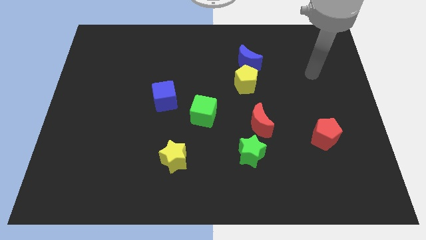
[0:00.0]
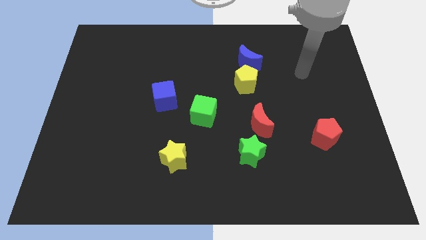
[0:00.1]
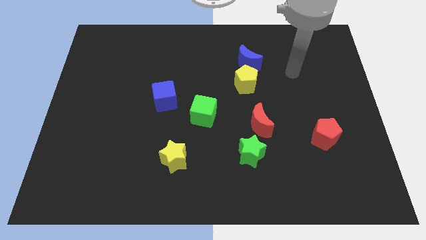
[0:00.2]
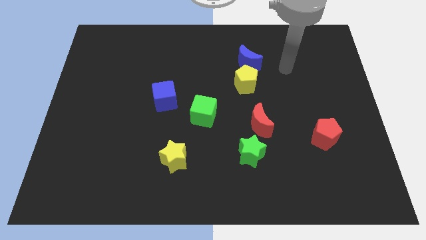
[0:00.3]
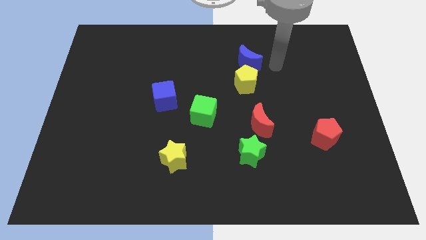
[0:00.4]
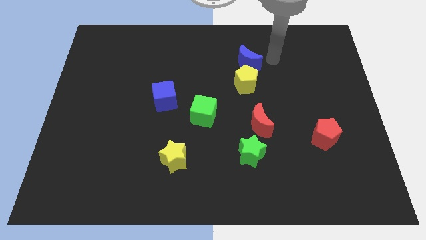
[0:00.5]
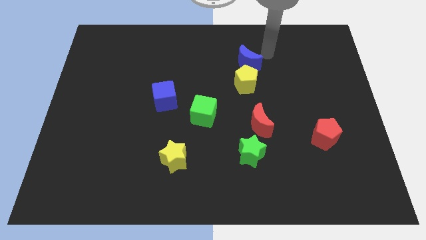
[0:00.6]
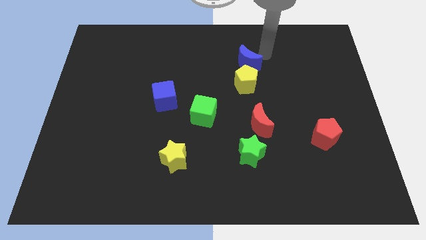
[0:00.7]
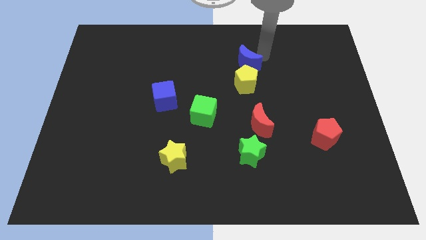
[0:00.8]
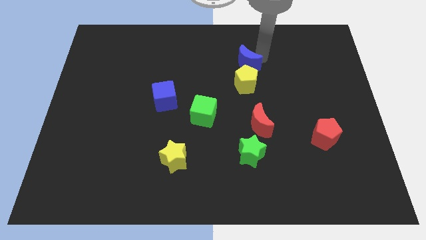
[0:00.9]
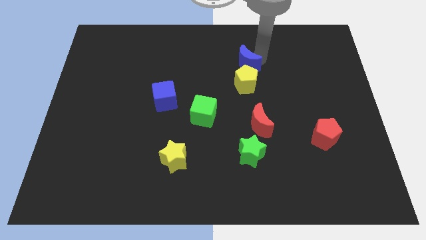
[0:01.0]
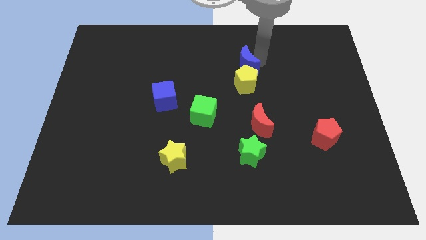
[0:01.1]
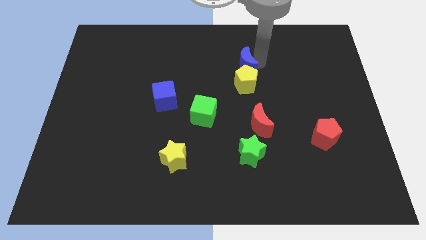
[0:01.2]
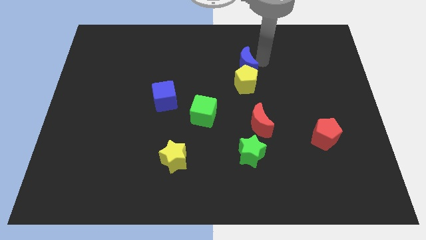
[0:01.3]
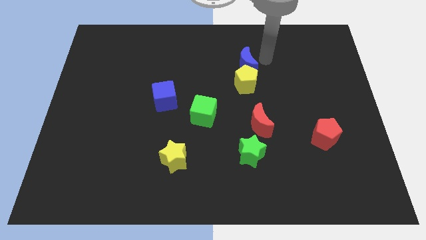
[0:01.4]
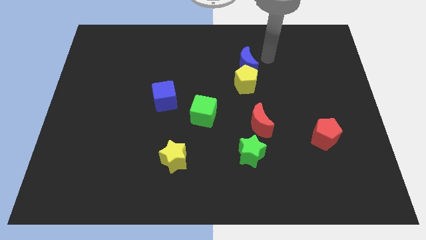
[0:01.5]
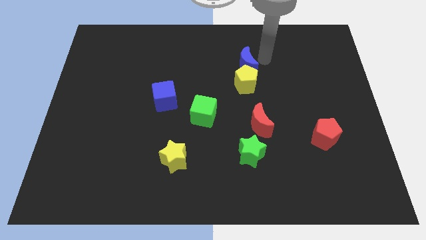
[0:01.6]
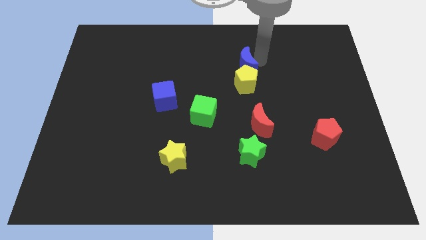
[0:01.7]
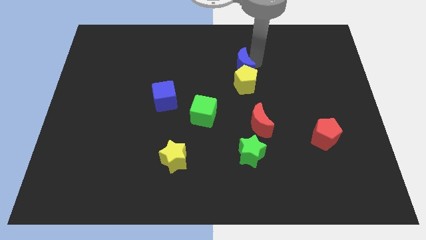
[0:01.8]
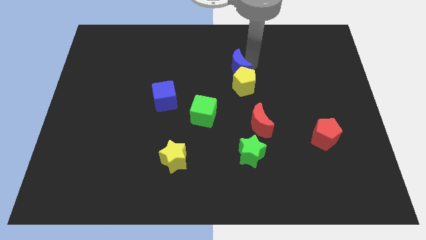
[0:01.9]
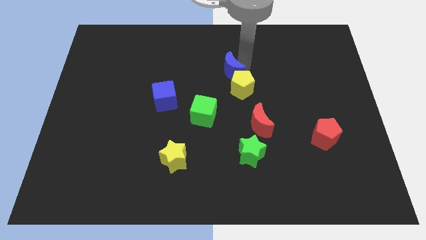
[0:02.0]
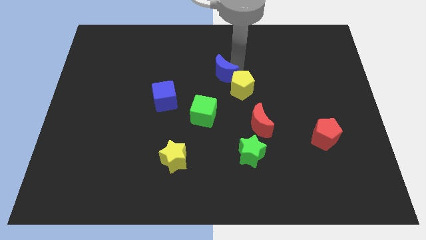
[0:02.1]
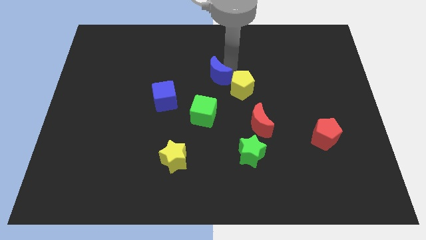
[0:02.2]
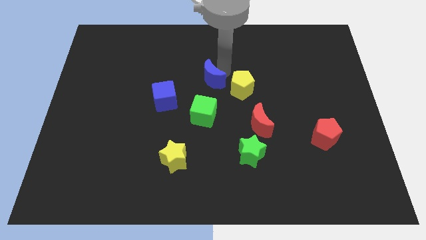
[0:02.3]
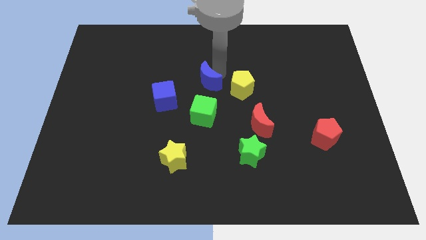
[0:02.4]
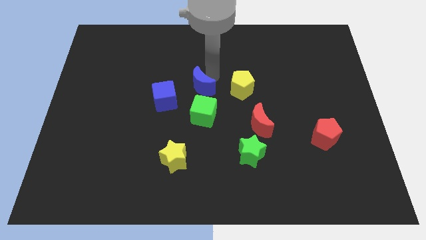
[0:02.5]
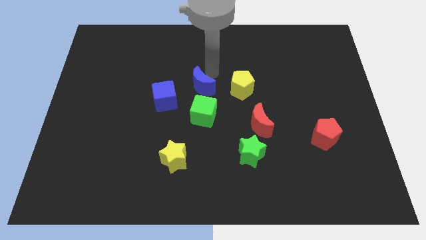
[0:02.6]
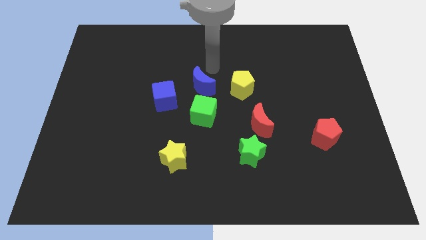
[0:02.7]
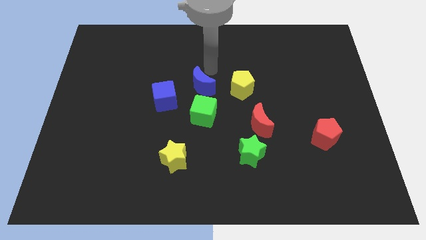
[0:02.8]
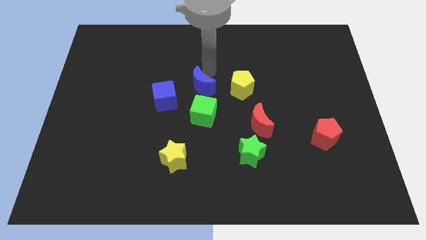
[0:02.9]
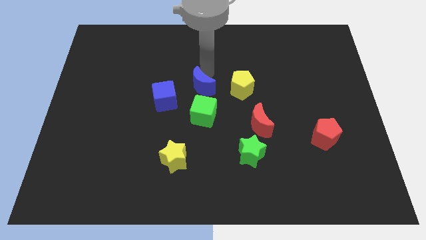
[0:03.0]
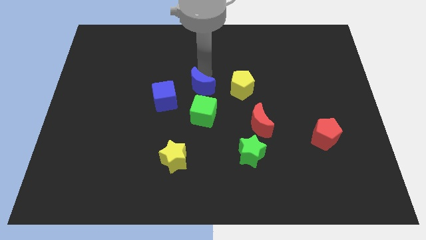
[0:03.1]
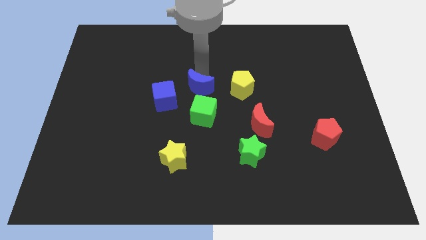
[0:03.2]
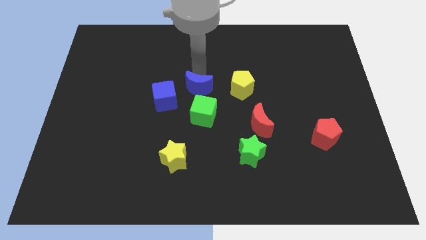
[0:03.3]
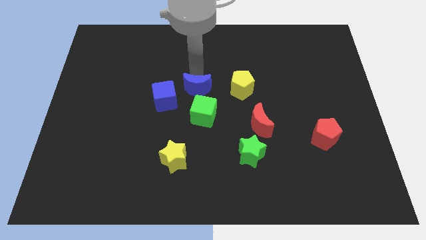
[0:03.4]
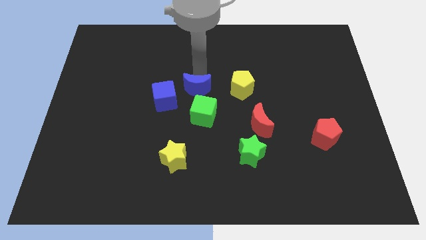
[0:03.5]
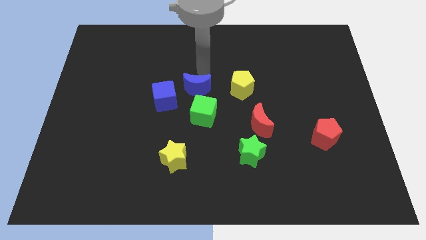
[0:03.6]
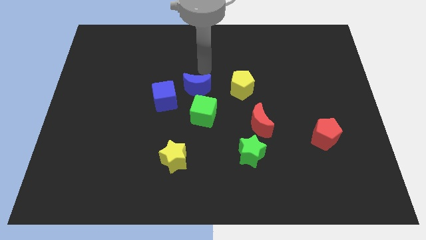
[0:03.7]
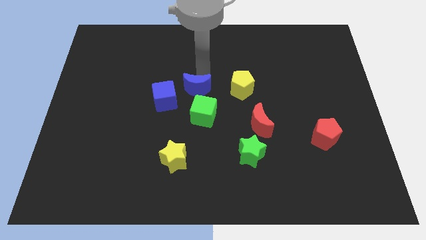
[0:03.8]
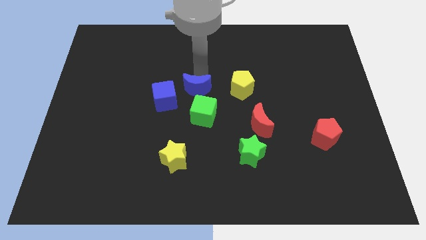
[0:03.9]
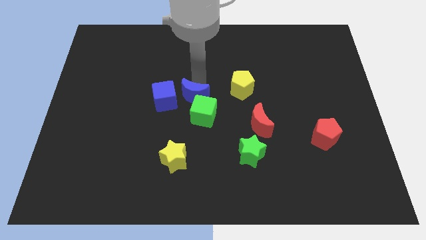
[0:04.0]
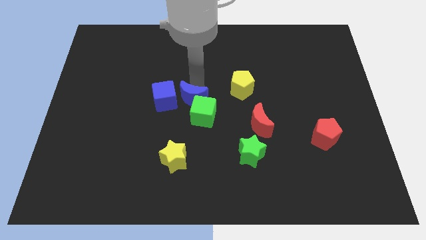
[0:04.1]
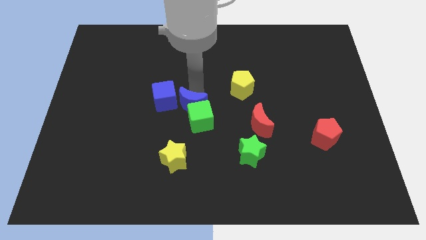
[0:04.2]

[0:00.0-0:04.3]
push the blue moon diagonally down and left

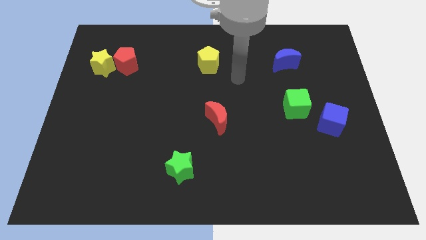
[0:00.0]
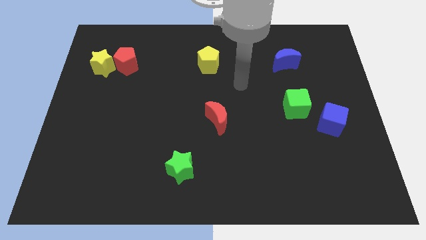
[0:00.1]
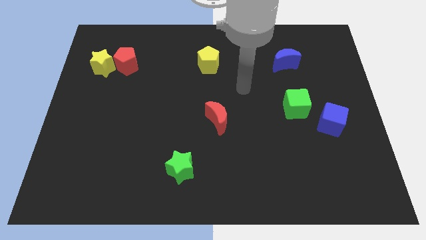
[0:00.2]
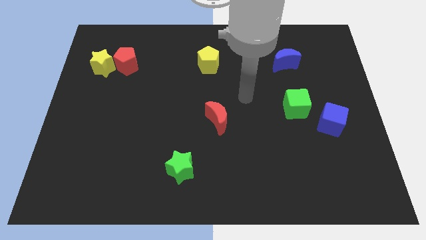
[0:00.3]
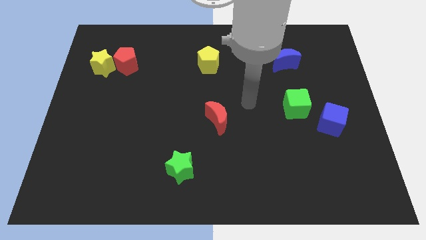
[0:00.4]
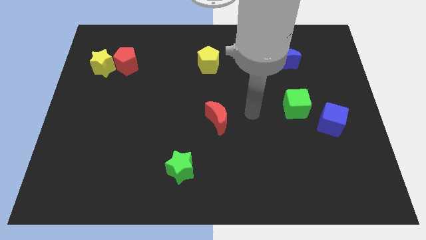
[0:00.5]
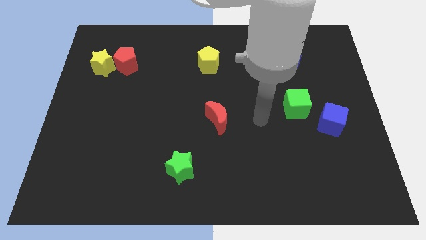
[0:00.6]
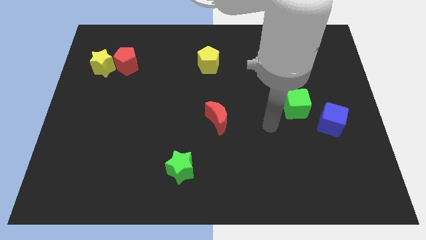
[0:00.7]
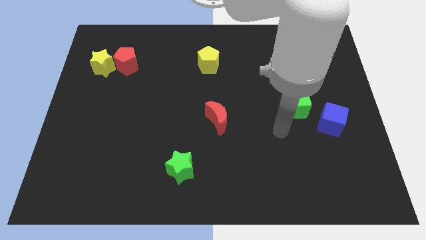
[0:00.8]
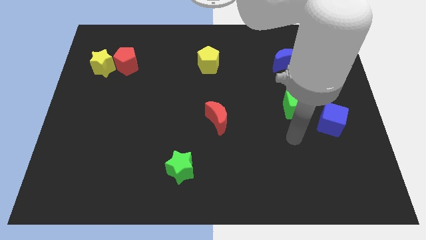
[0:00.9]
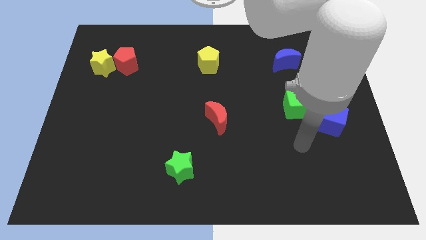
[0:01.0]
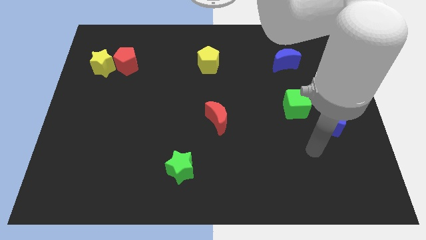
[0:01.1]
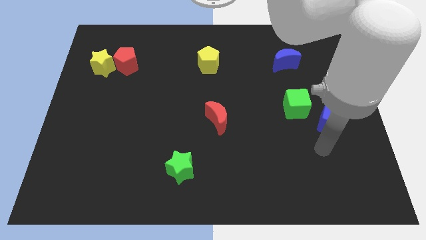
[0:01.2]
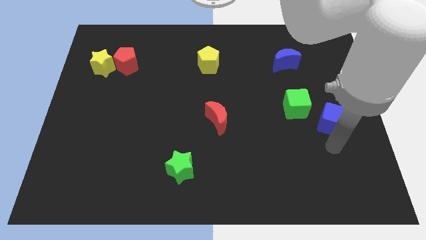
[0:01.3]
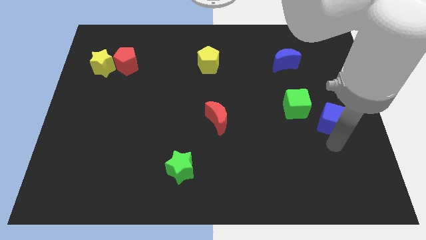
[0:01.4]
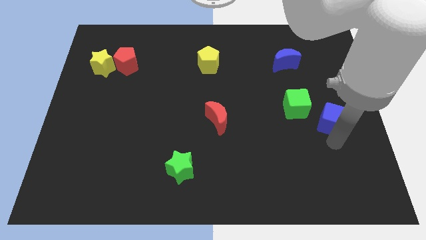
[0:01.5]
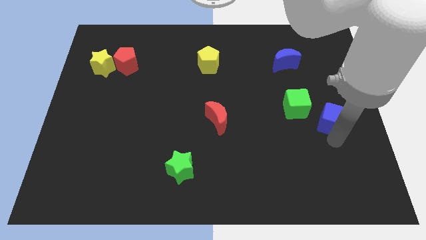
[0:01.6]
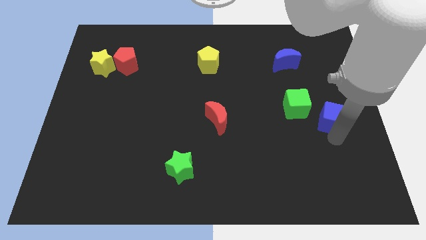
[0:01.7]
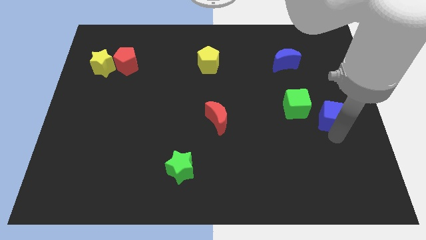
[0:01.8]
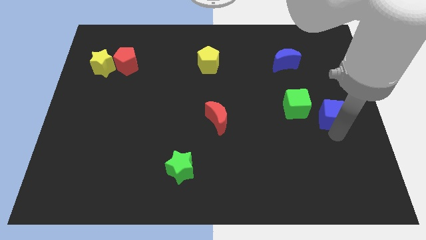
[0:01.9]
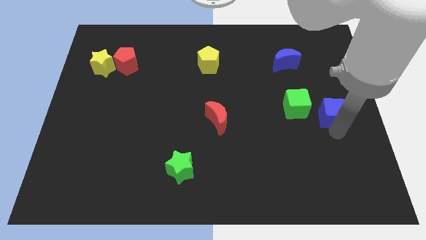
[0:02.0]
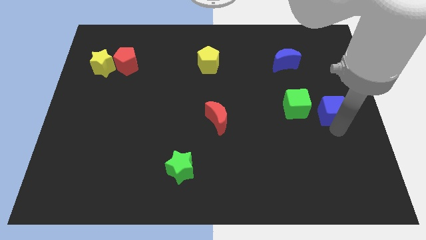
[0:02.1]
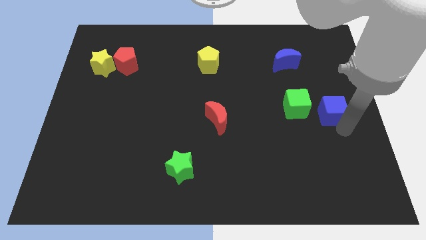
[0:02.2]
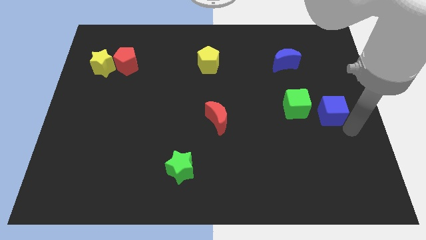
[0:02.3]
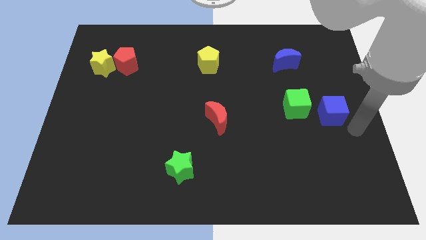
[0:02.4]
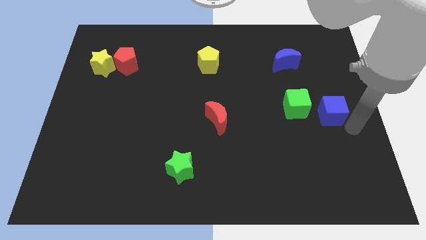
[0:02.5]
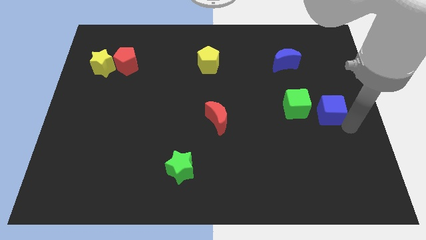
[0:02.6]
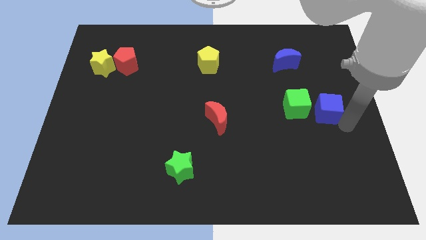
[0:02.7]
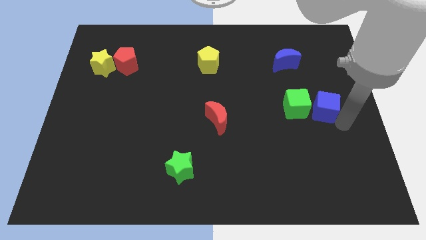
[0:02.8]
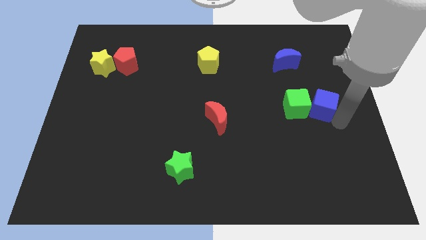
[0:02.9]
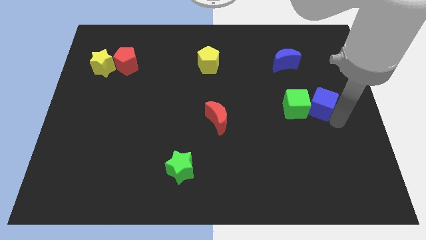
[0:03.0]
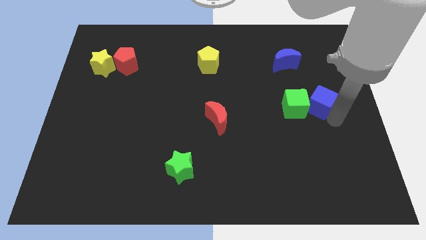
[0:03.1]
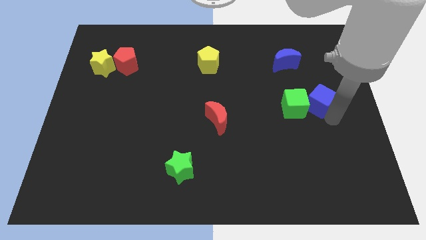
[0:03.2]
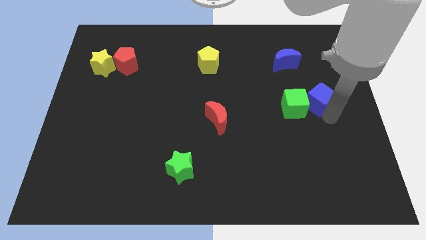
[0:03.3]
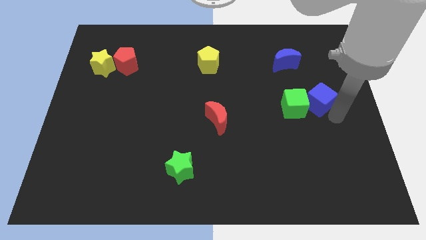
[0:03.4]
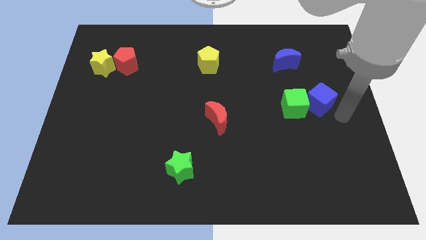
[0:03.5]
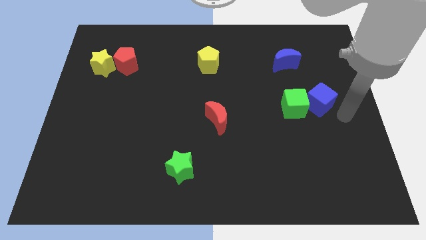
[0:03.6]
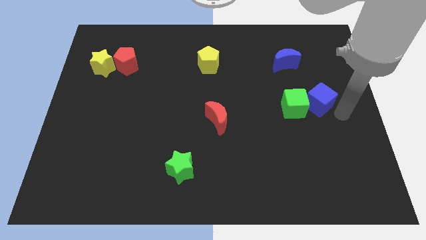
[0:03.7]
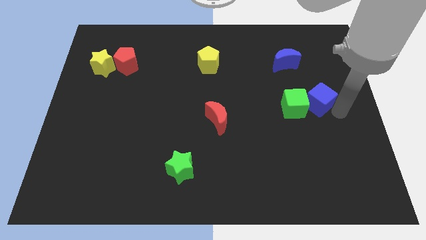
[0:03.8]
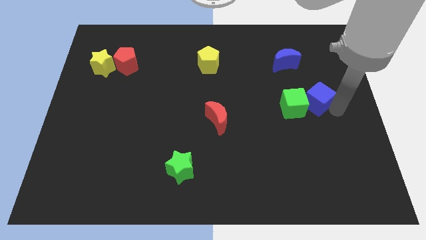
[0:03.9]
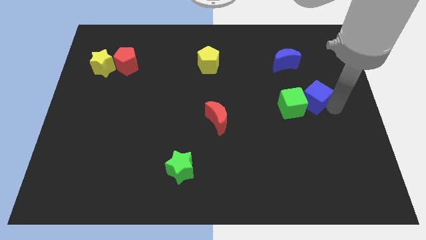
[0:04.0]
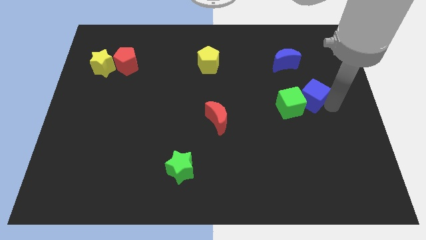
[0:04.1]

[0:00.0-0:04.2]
slide the blue cube upwards and then left slightly
